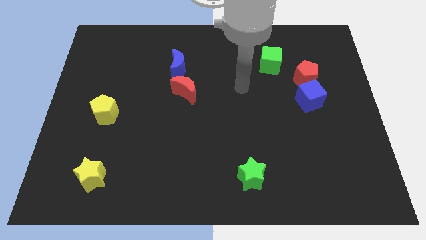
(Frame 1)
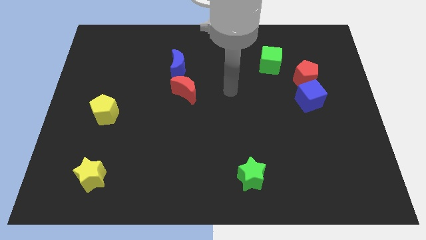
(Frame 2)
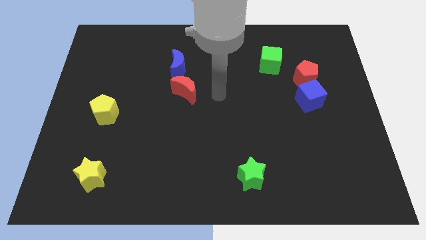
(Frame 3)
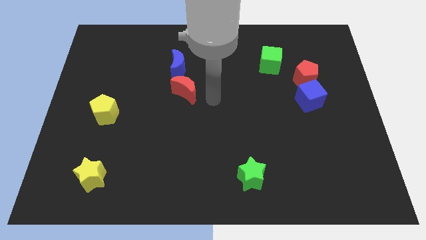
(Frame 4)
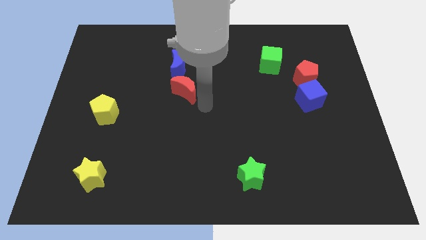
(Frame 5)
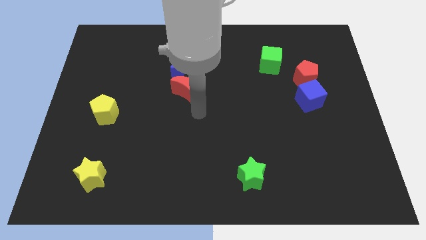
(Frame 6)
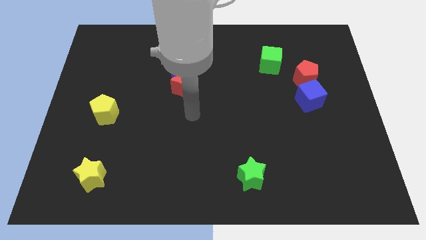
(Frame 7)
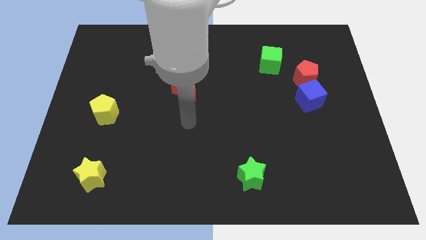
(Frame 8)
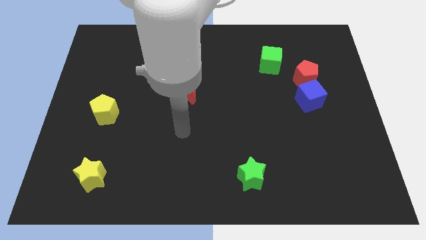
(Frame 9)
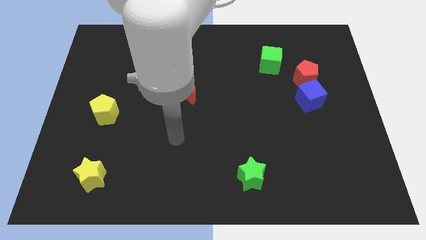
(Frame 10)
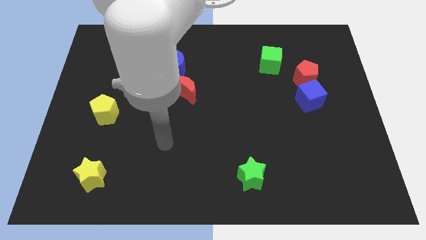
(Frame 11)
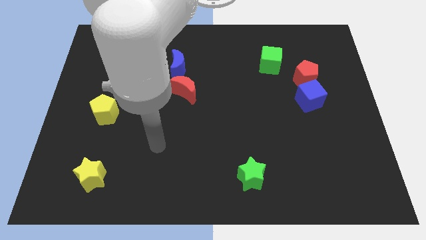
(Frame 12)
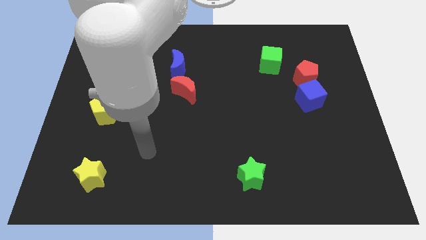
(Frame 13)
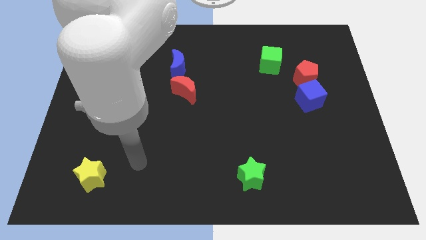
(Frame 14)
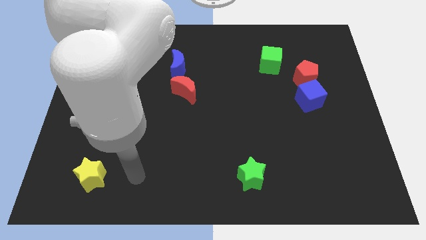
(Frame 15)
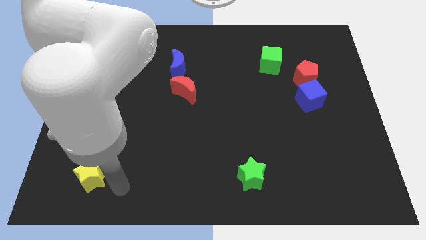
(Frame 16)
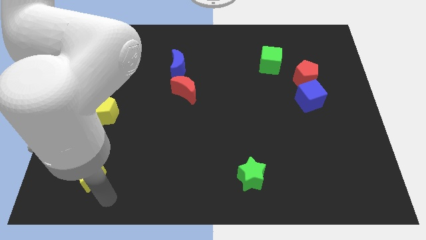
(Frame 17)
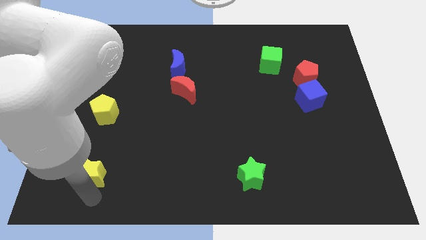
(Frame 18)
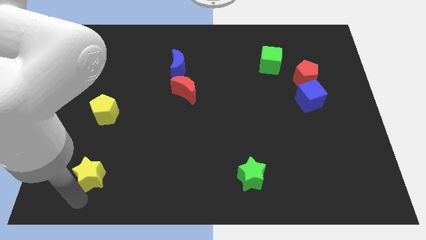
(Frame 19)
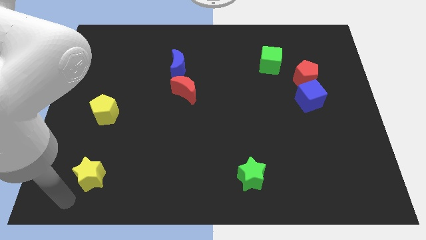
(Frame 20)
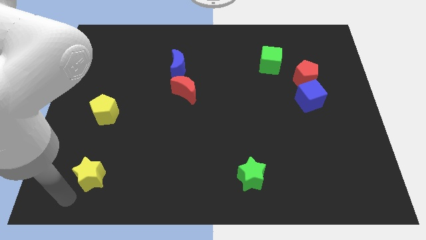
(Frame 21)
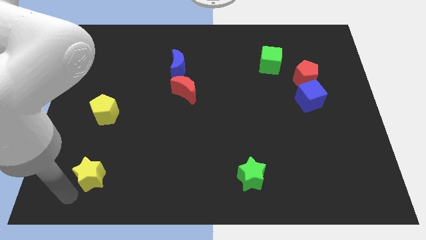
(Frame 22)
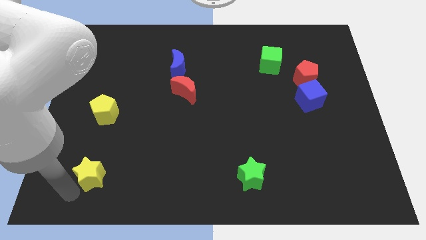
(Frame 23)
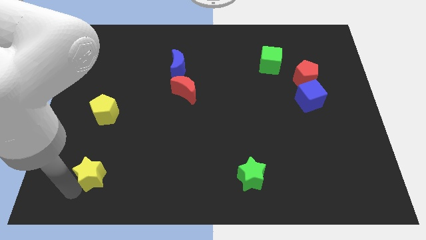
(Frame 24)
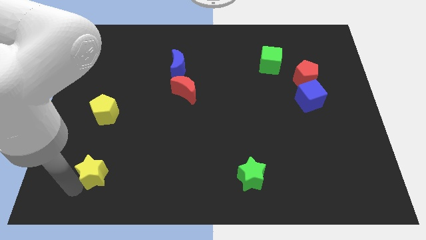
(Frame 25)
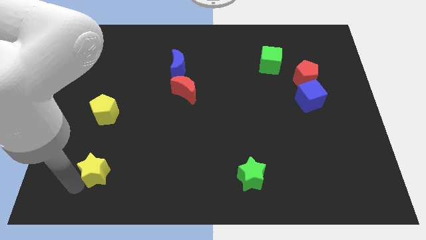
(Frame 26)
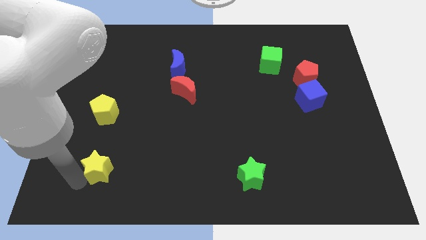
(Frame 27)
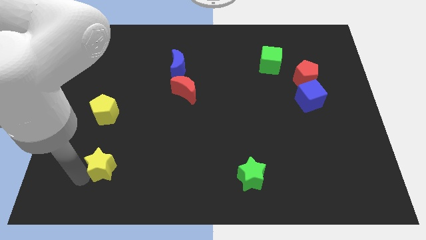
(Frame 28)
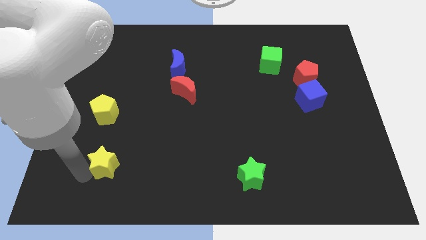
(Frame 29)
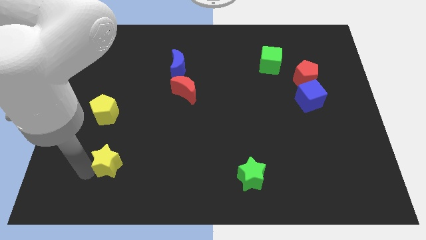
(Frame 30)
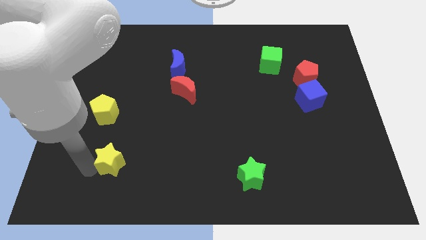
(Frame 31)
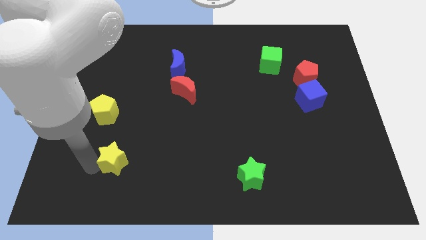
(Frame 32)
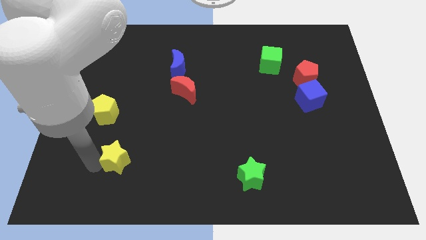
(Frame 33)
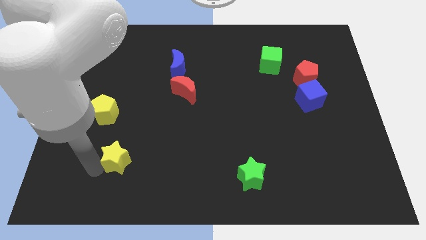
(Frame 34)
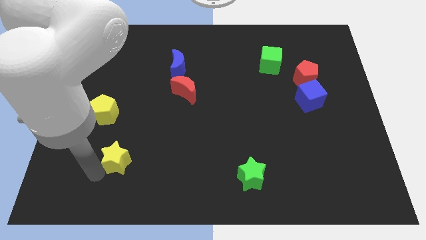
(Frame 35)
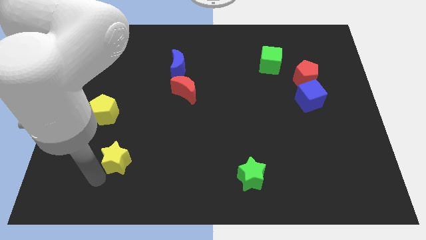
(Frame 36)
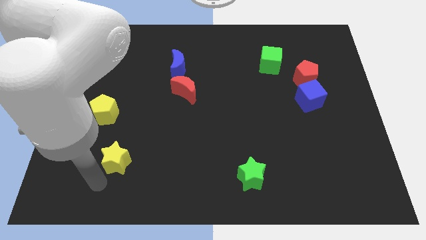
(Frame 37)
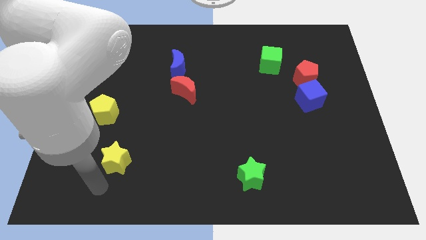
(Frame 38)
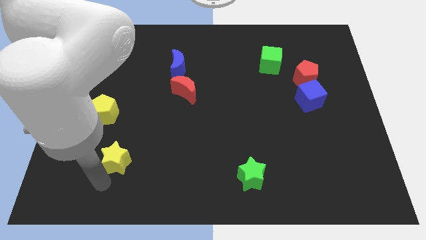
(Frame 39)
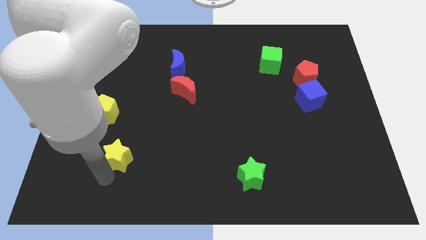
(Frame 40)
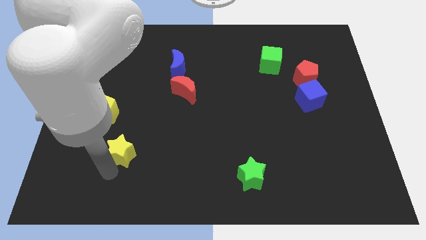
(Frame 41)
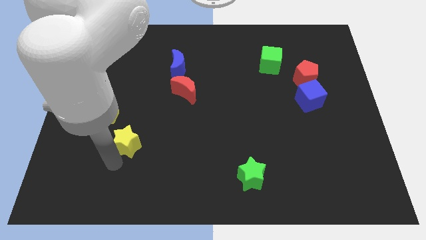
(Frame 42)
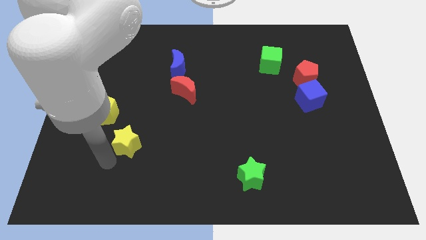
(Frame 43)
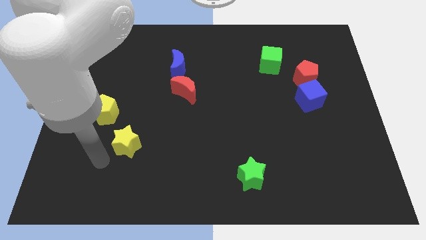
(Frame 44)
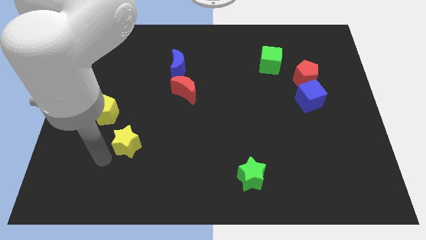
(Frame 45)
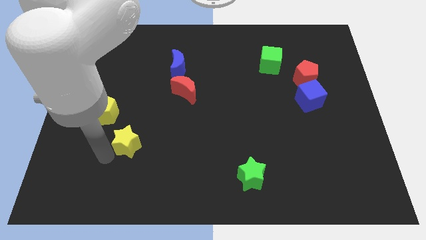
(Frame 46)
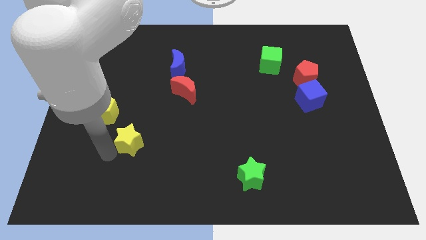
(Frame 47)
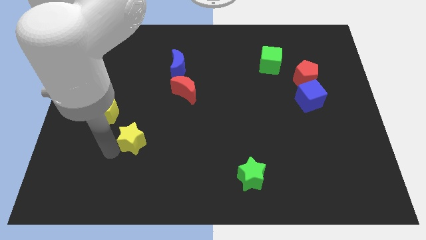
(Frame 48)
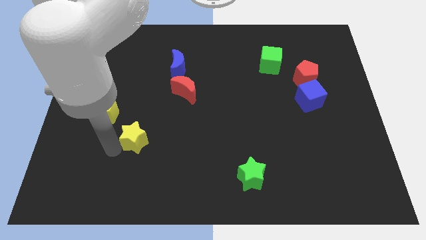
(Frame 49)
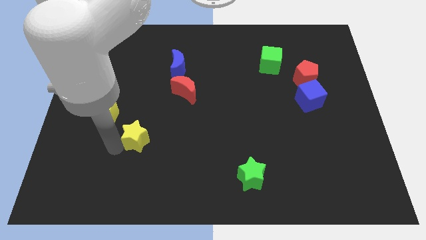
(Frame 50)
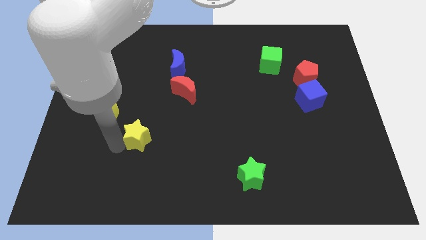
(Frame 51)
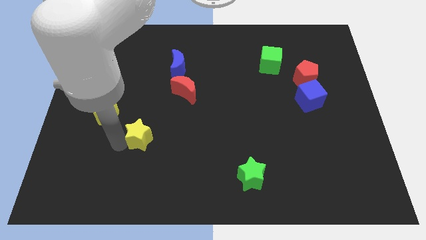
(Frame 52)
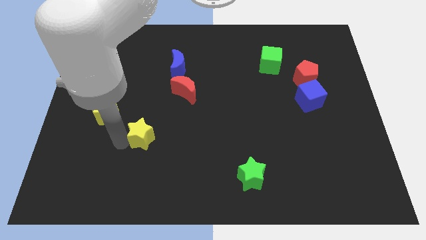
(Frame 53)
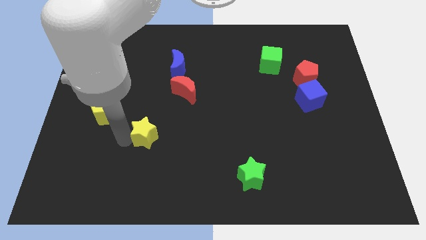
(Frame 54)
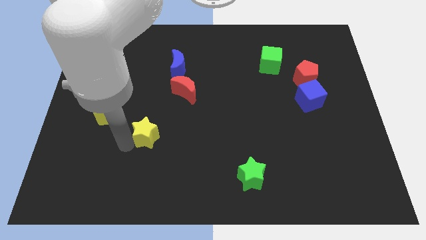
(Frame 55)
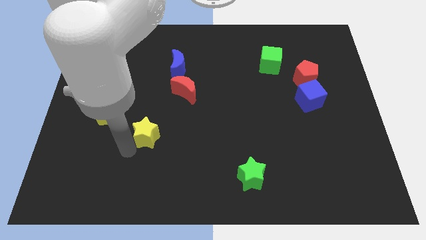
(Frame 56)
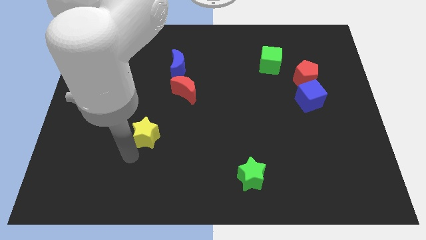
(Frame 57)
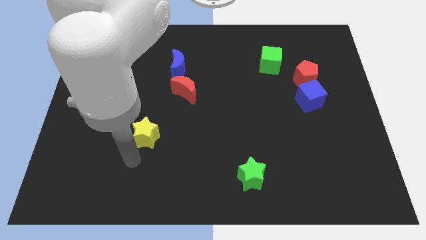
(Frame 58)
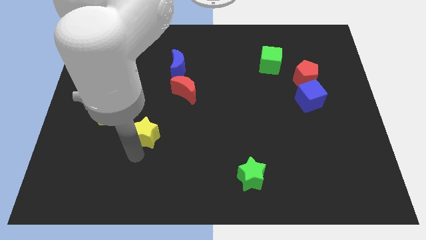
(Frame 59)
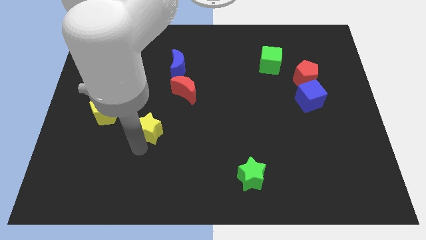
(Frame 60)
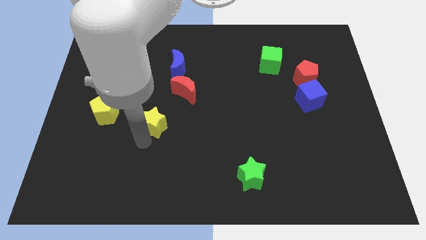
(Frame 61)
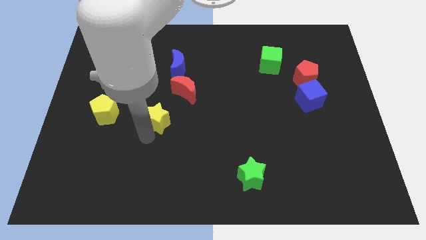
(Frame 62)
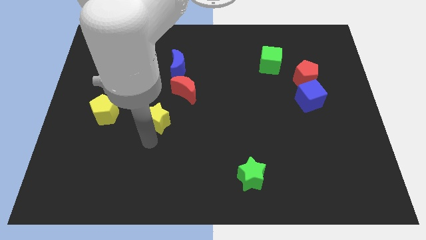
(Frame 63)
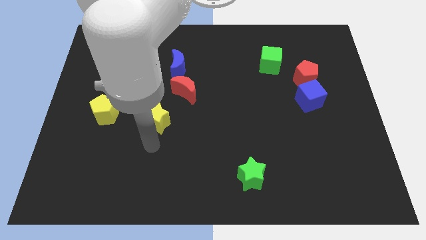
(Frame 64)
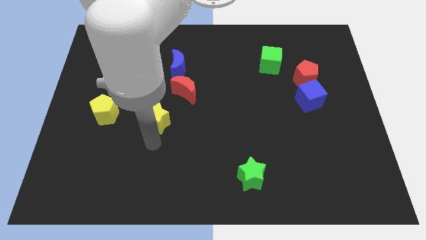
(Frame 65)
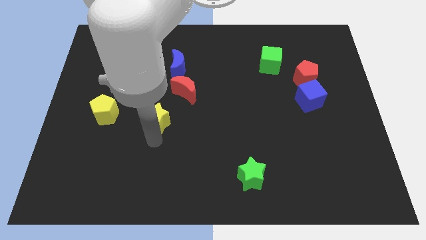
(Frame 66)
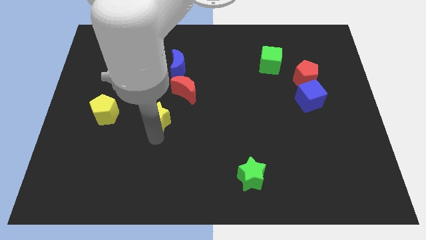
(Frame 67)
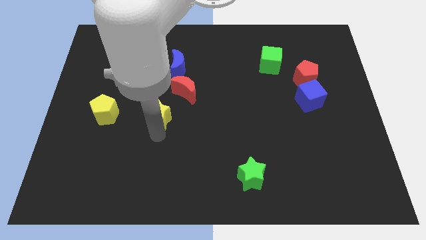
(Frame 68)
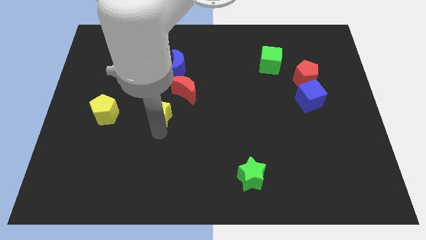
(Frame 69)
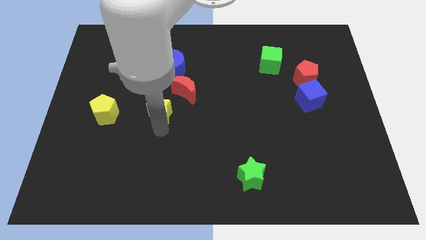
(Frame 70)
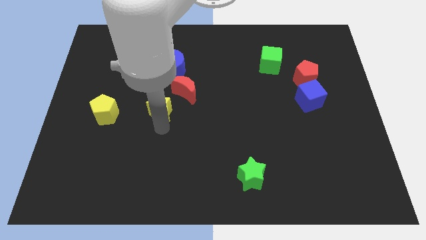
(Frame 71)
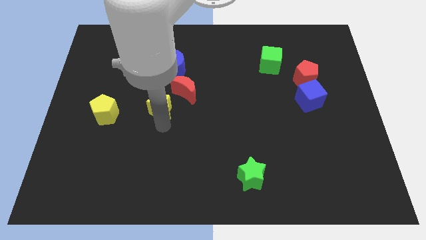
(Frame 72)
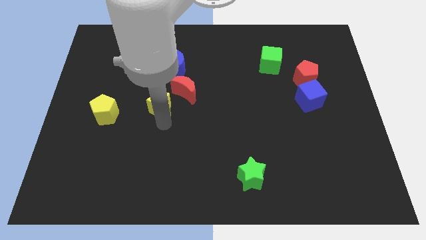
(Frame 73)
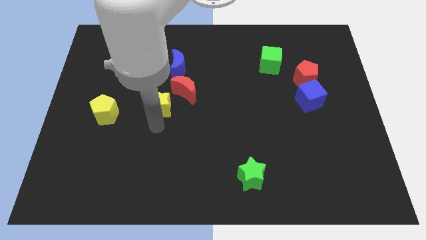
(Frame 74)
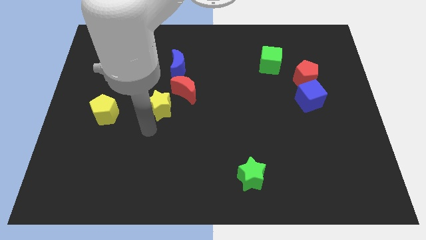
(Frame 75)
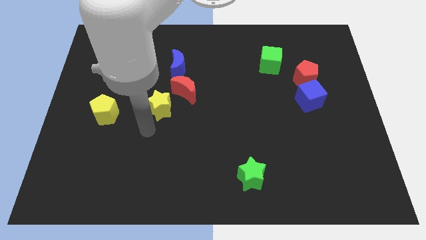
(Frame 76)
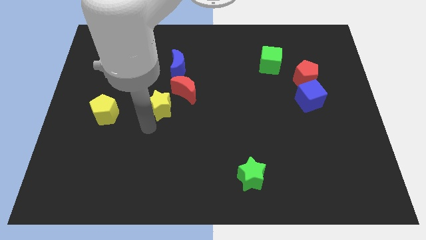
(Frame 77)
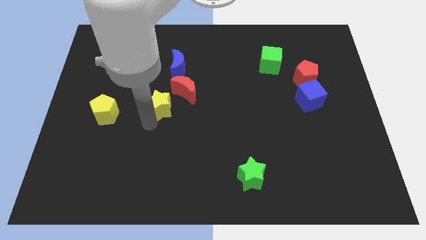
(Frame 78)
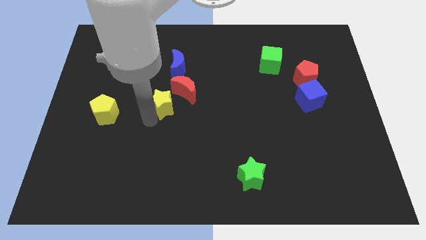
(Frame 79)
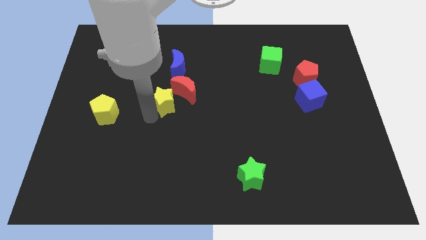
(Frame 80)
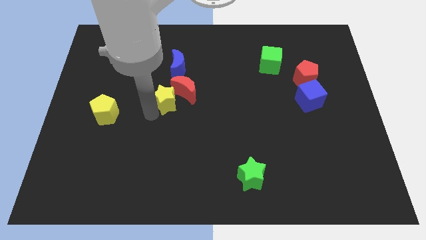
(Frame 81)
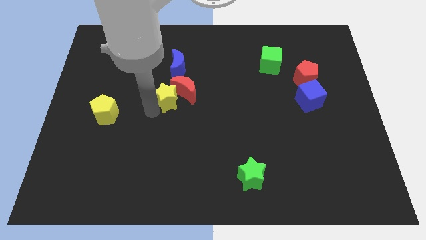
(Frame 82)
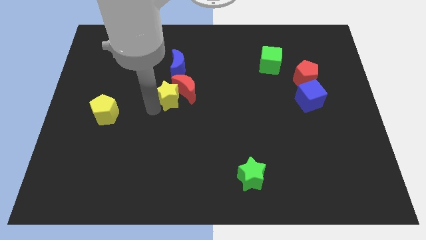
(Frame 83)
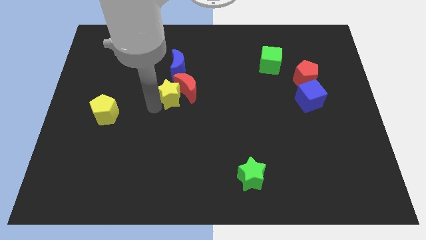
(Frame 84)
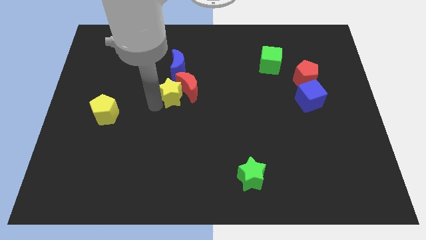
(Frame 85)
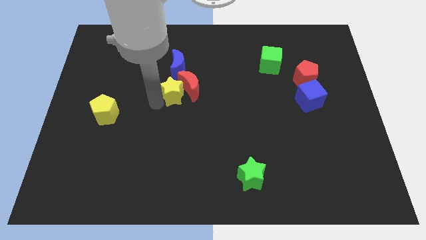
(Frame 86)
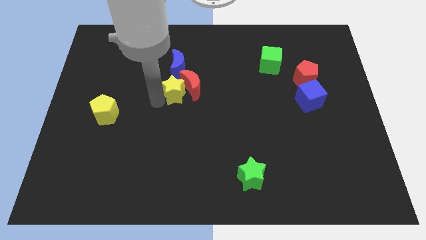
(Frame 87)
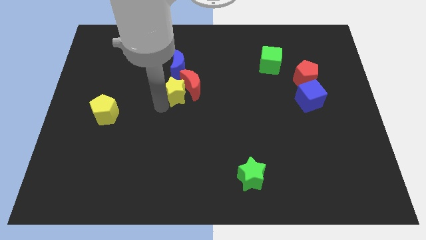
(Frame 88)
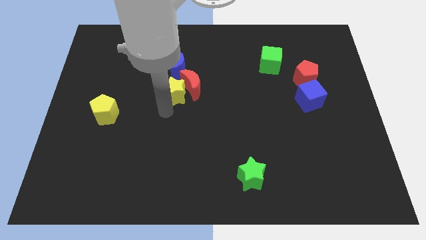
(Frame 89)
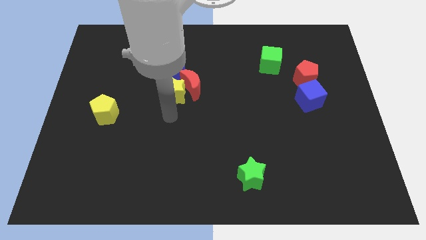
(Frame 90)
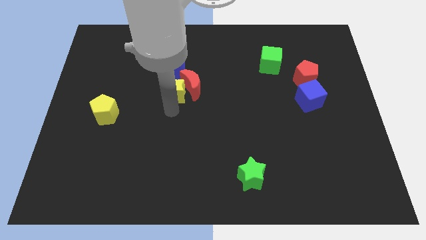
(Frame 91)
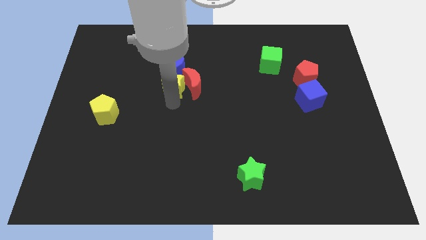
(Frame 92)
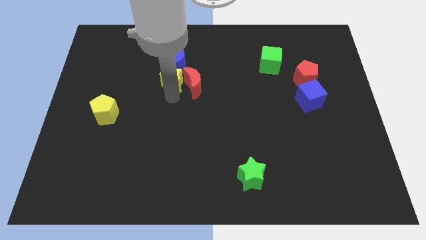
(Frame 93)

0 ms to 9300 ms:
put the yellow star close to the blue moon
